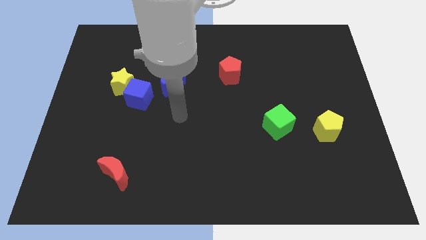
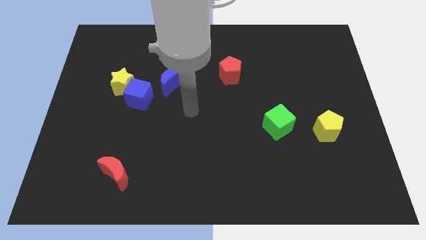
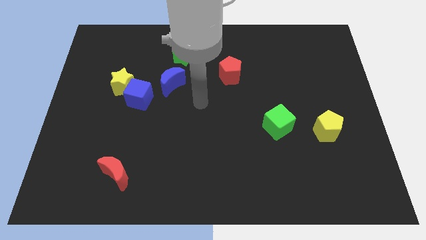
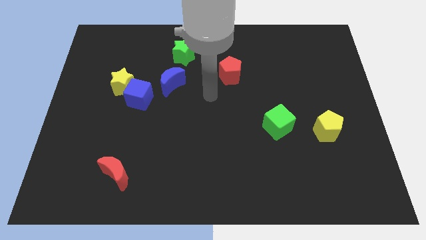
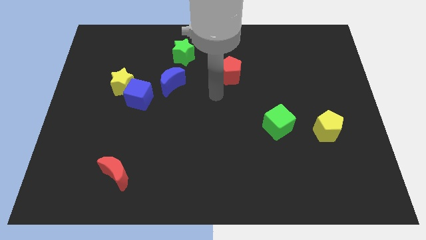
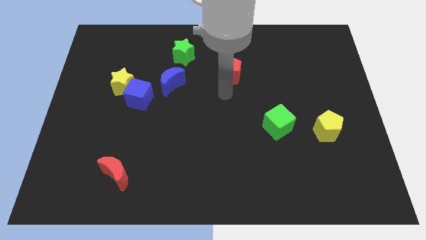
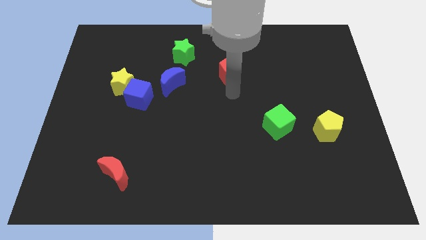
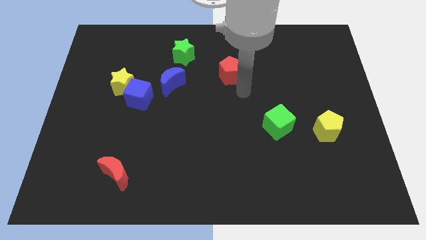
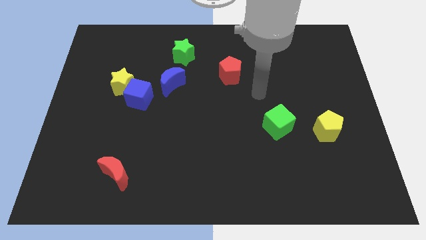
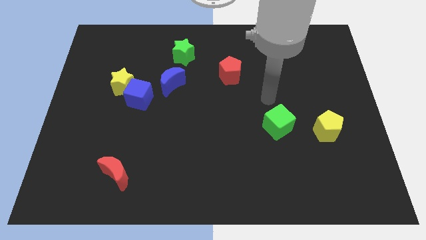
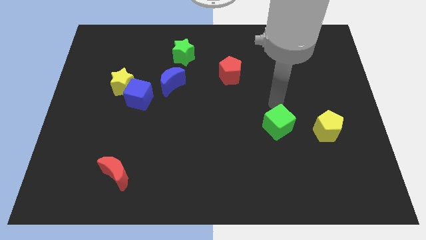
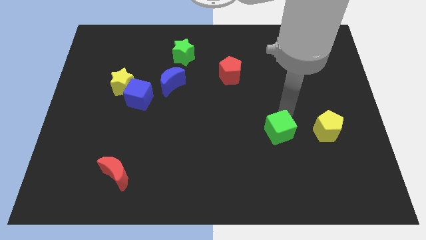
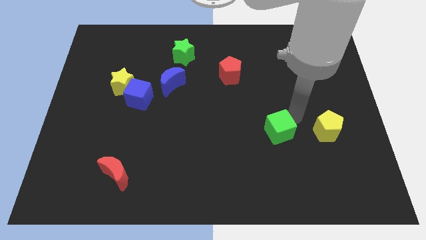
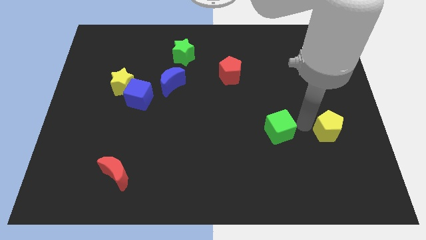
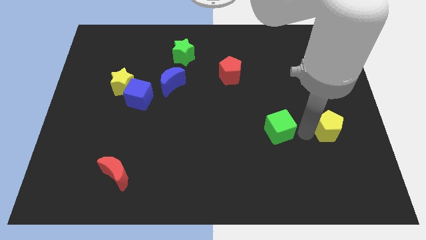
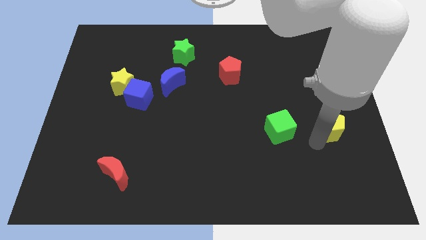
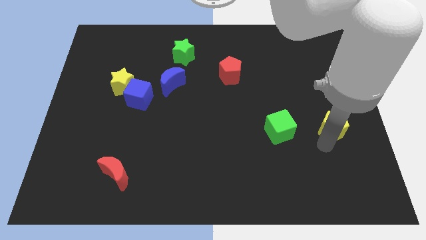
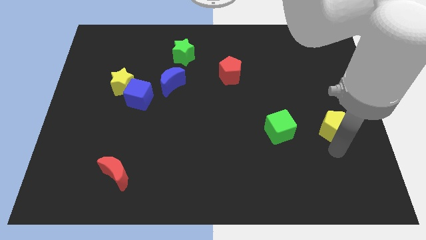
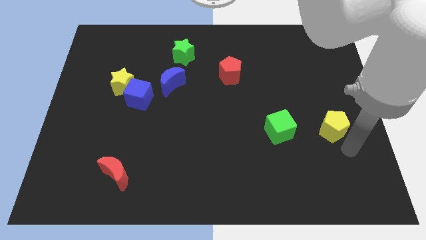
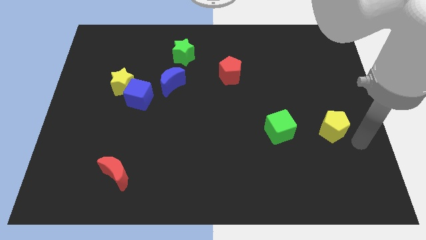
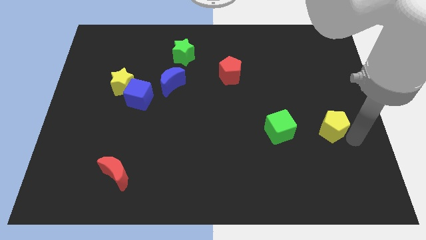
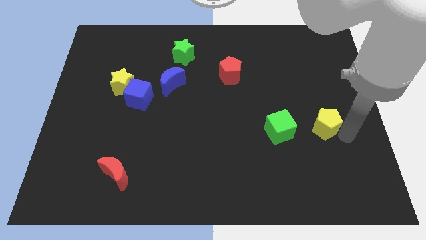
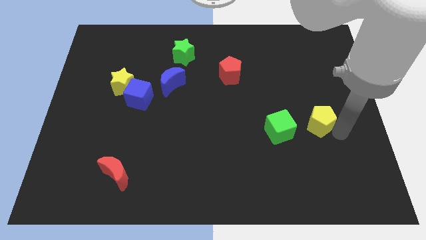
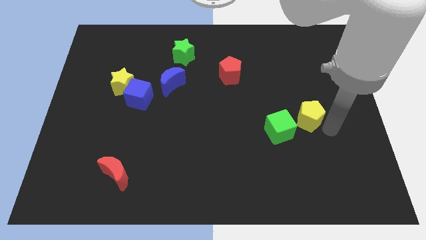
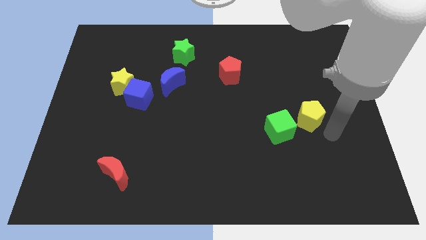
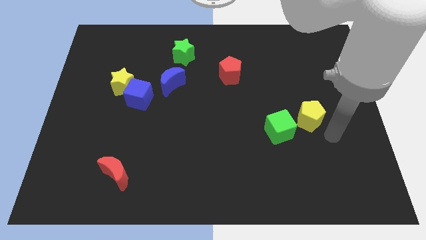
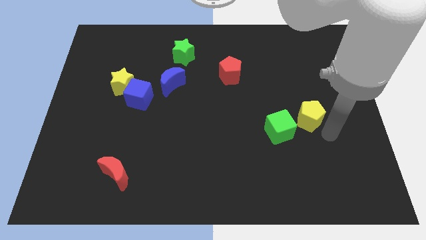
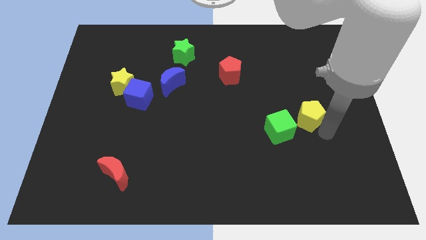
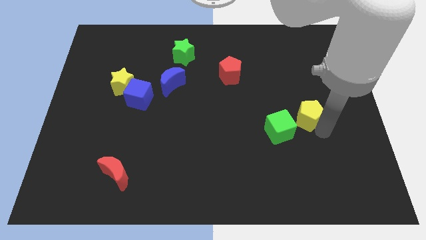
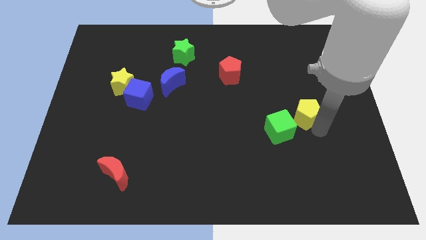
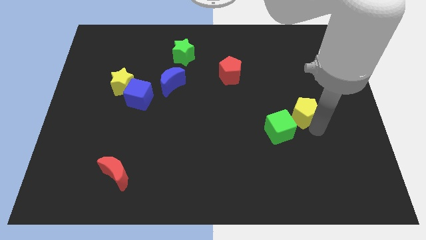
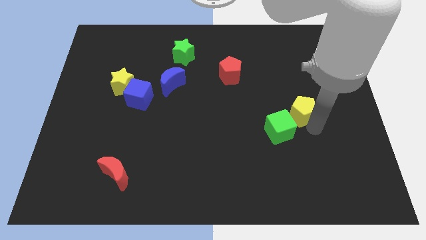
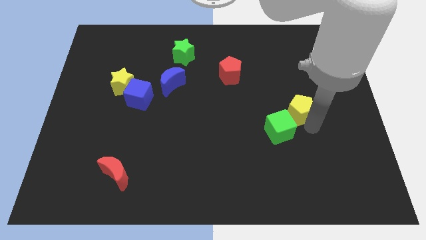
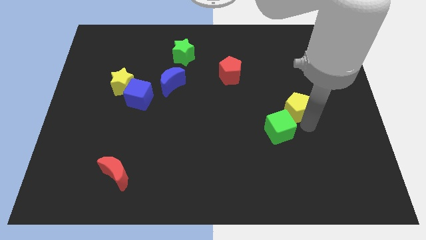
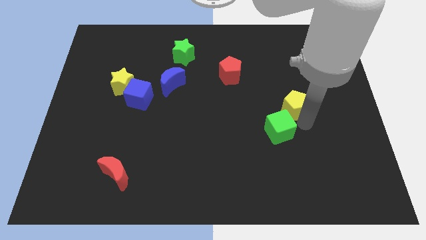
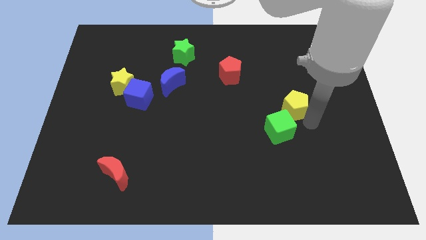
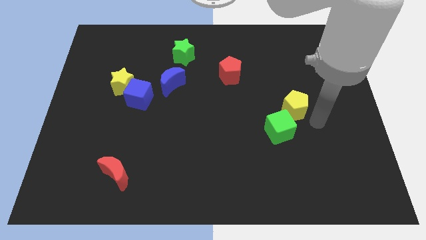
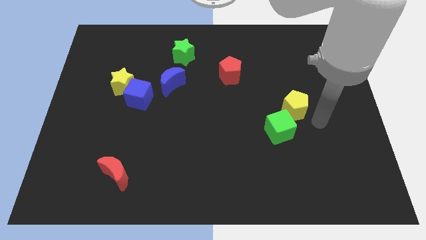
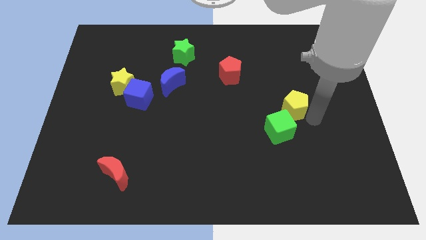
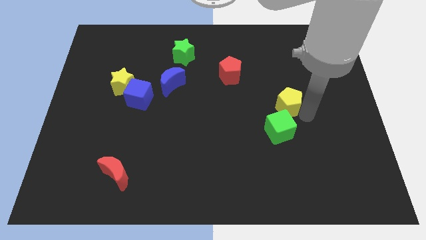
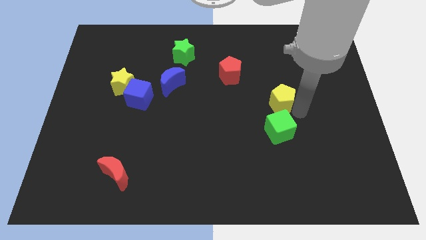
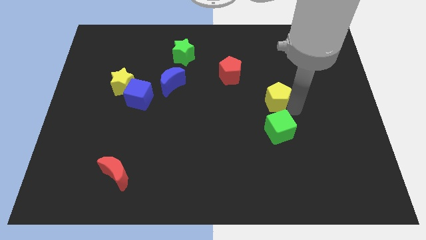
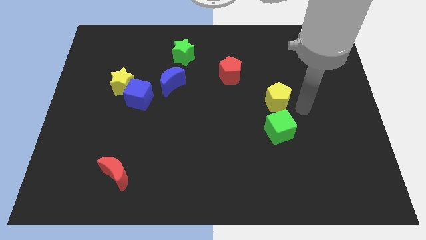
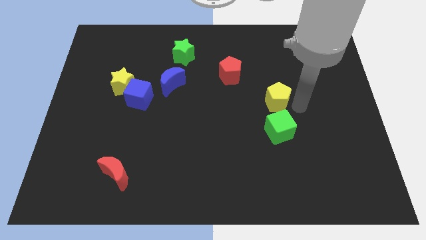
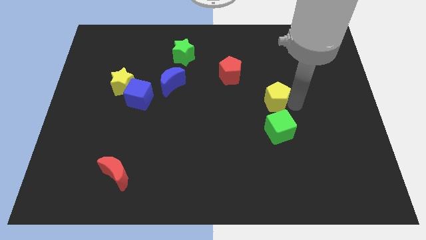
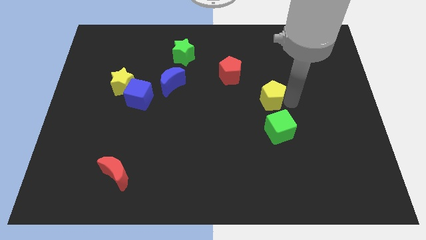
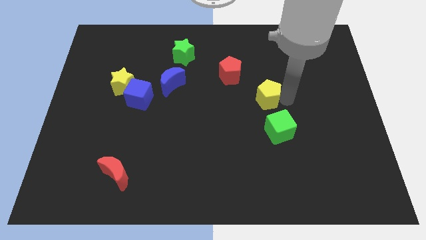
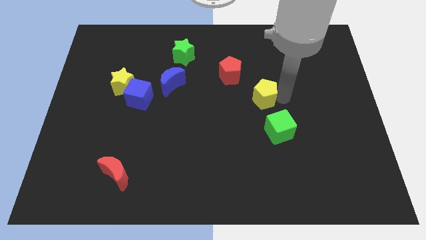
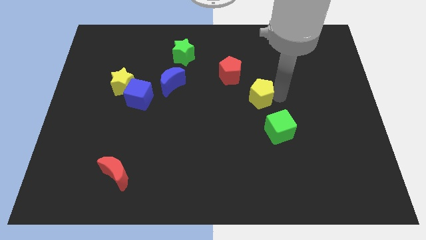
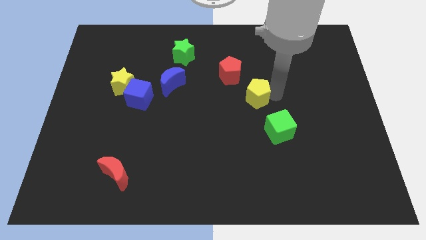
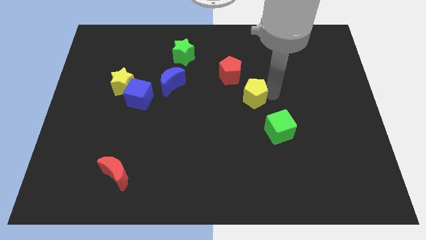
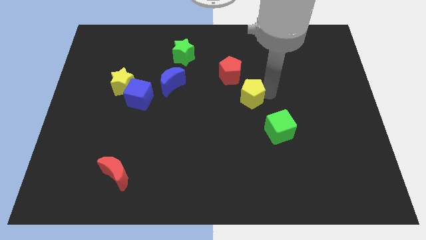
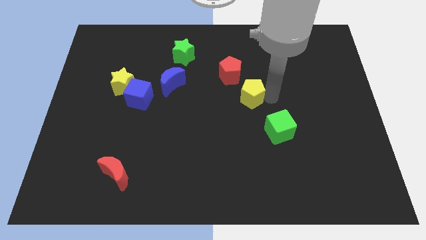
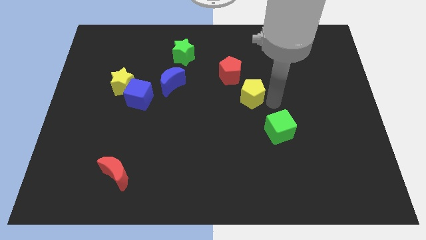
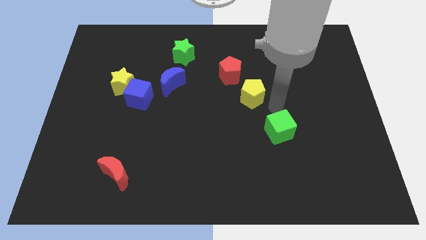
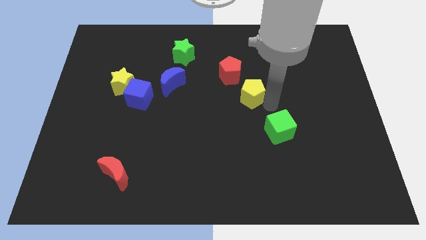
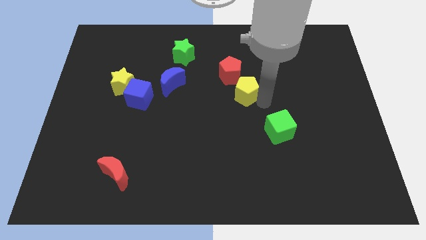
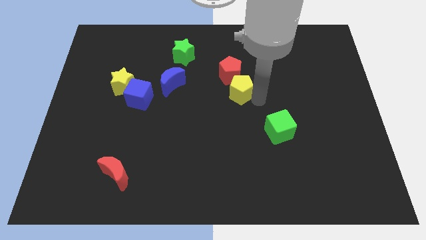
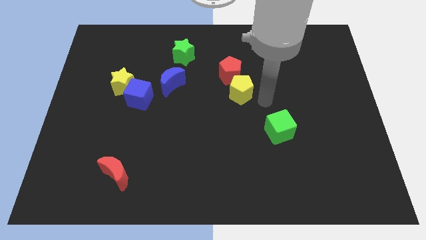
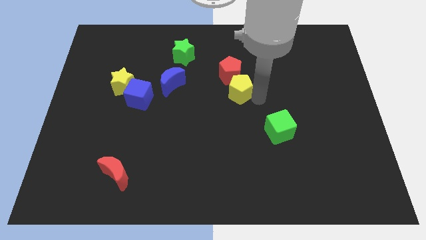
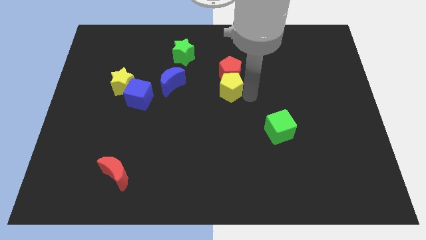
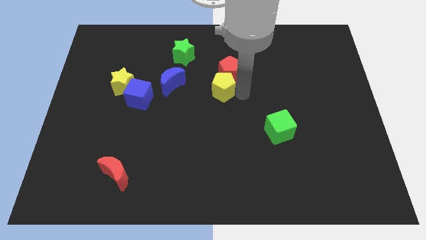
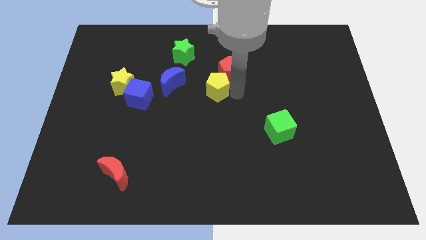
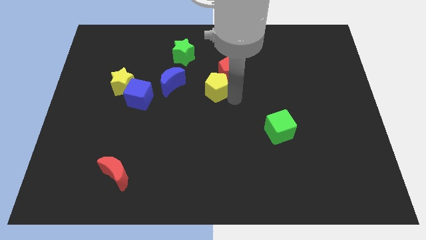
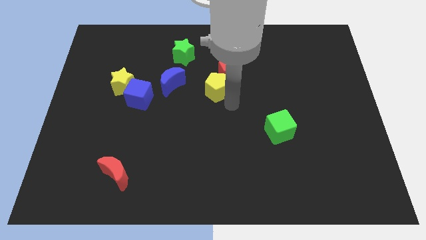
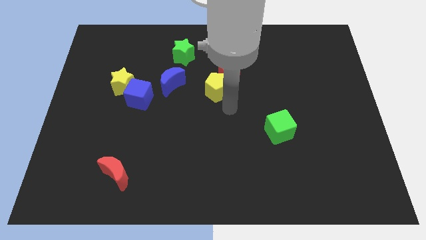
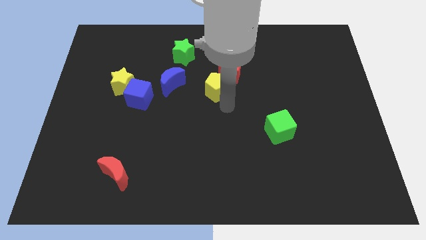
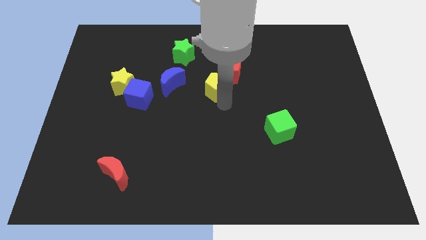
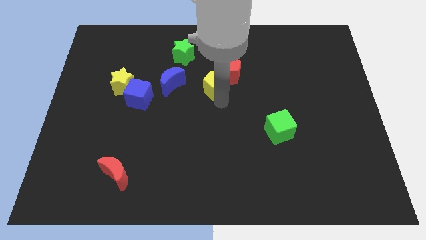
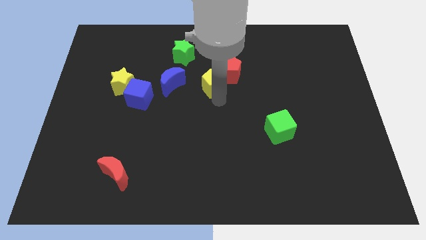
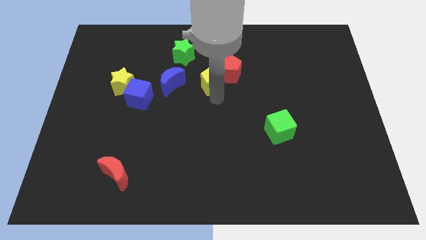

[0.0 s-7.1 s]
put the yellow pentagon to the bottom right side of the green star

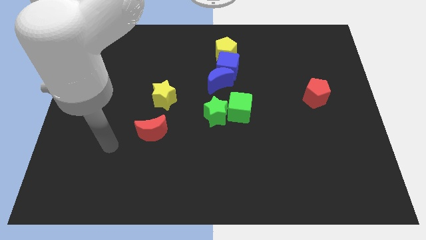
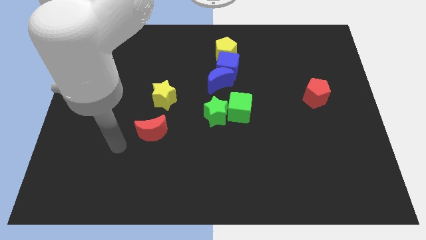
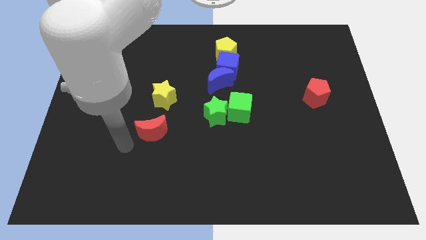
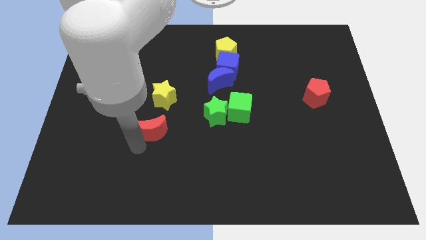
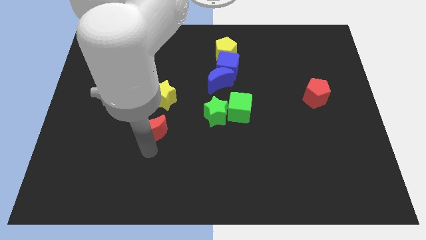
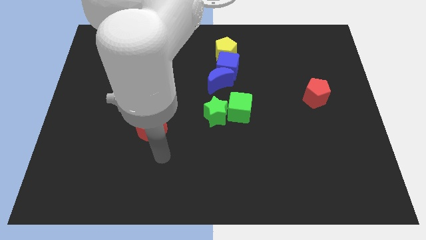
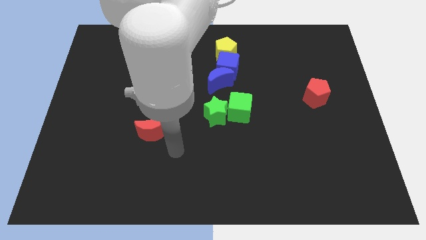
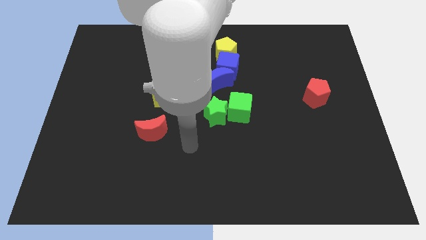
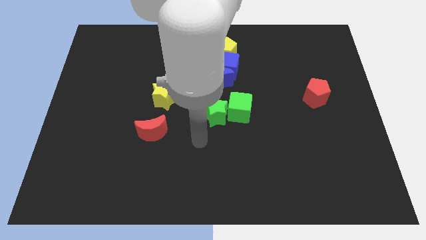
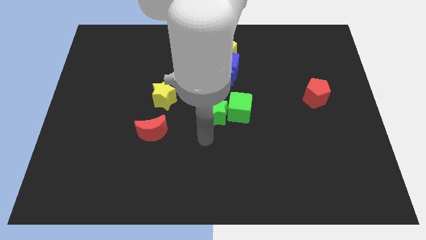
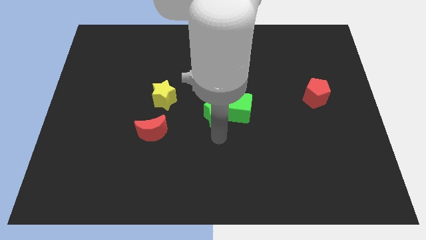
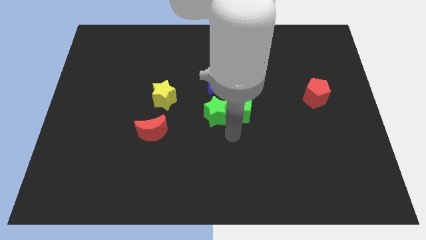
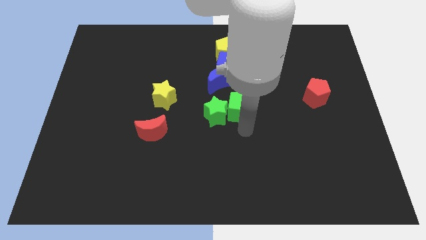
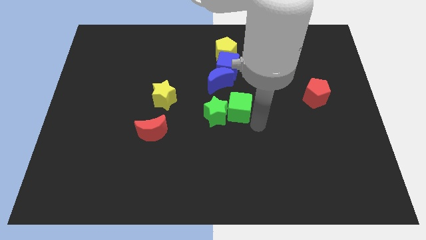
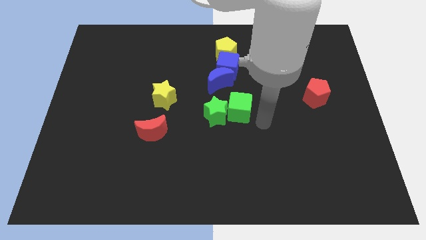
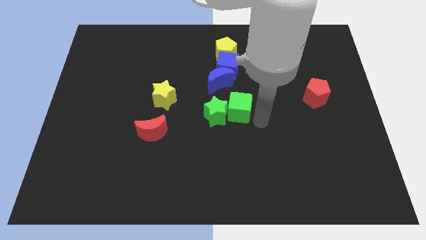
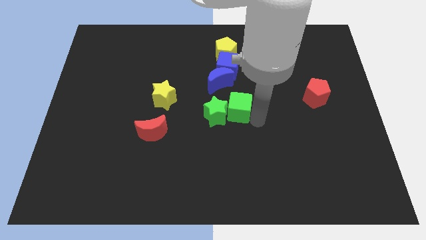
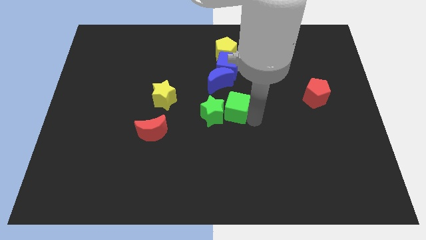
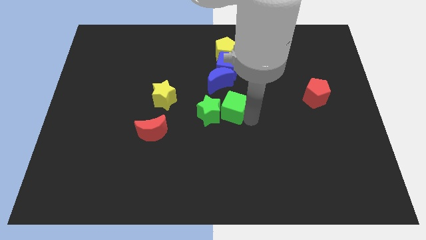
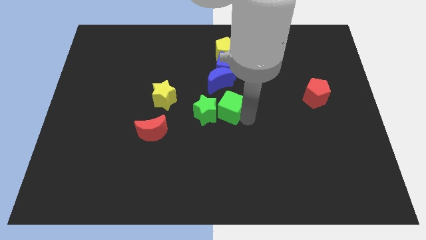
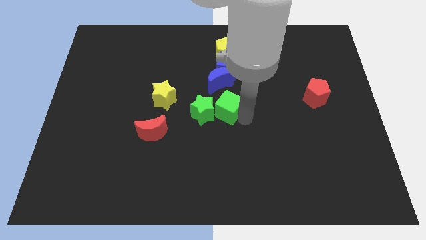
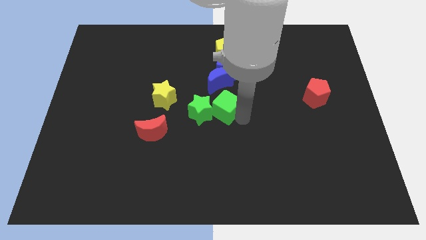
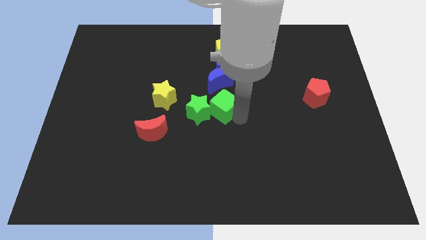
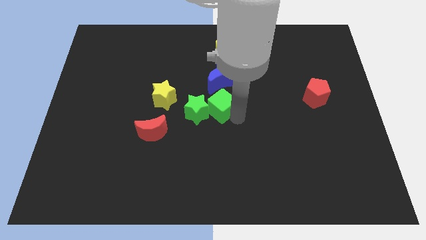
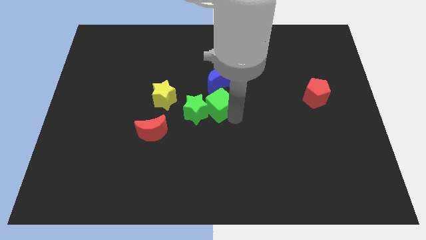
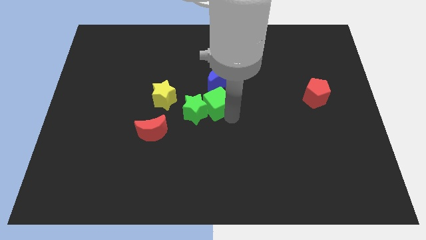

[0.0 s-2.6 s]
push the green cube to the bottom left of the blue moon
